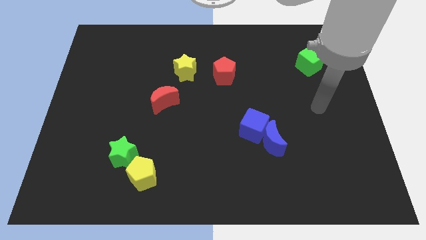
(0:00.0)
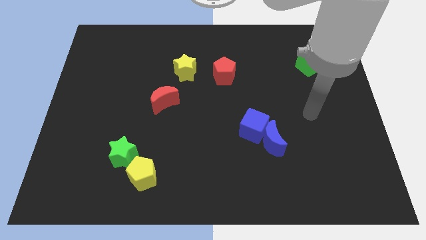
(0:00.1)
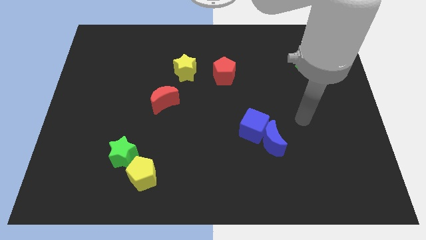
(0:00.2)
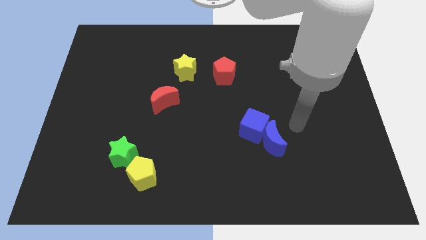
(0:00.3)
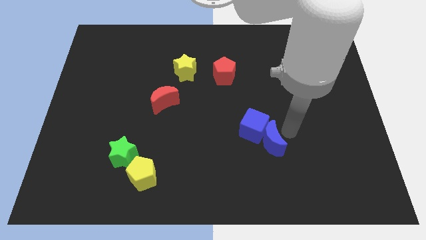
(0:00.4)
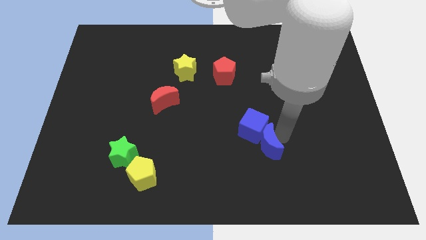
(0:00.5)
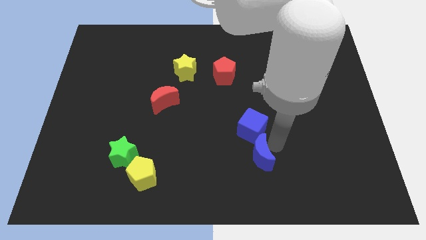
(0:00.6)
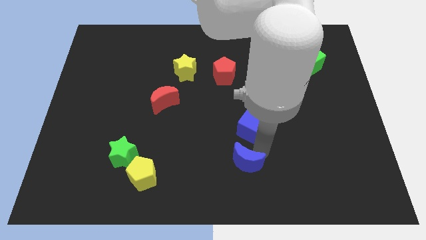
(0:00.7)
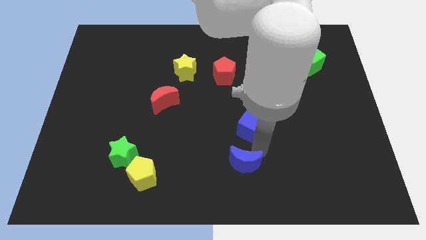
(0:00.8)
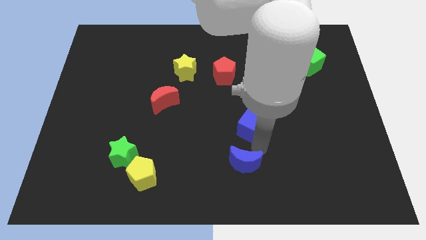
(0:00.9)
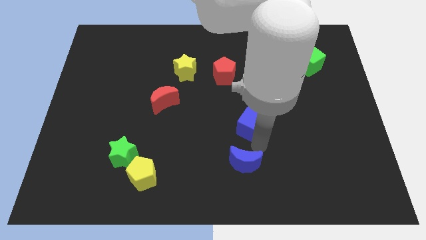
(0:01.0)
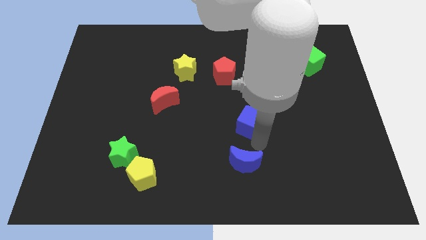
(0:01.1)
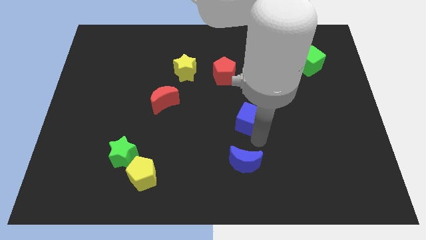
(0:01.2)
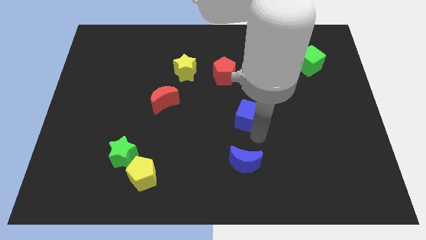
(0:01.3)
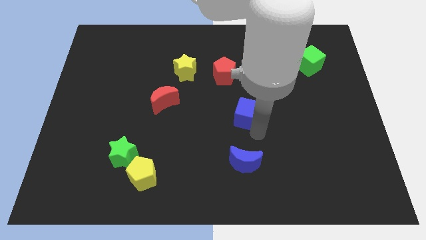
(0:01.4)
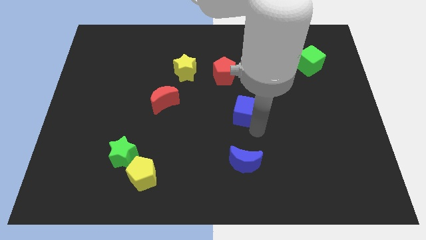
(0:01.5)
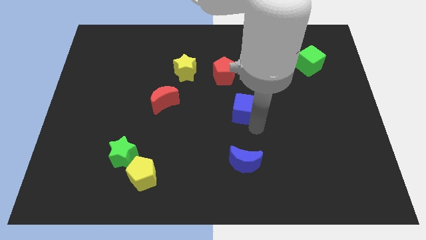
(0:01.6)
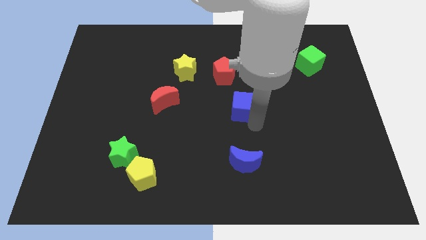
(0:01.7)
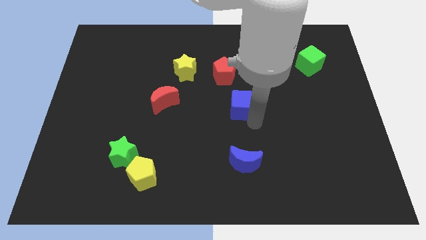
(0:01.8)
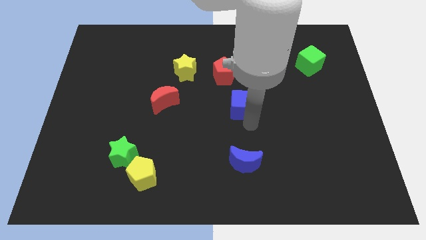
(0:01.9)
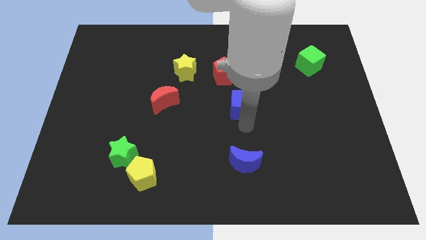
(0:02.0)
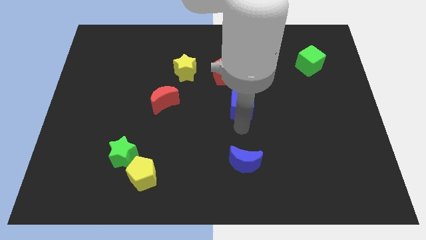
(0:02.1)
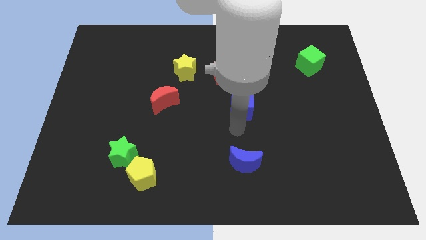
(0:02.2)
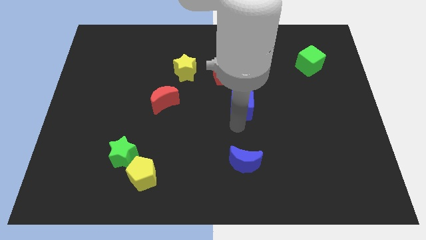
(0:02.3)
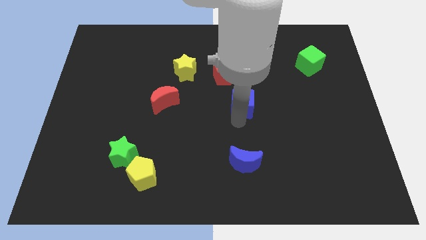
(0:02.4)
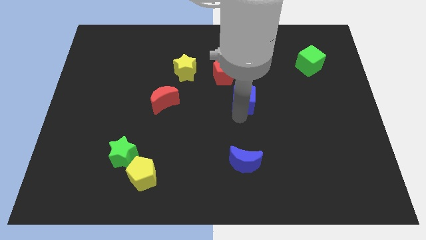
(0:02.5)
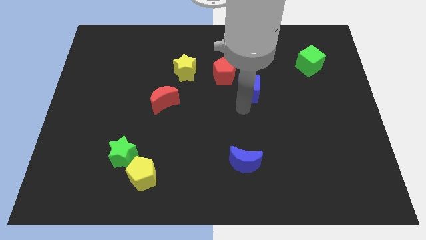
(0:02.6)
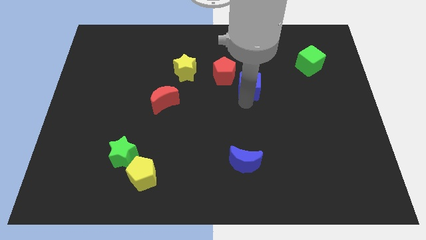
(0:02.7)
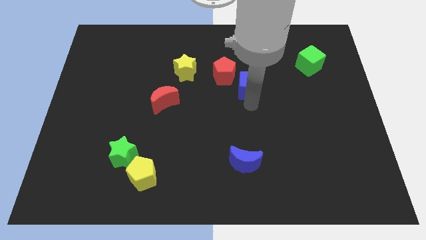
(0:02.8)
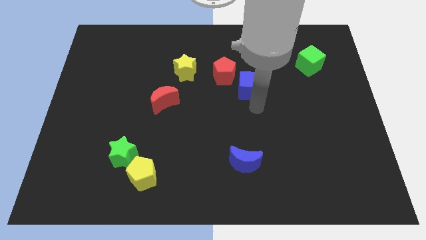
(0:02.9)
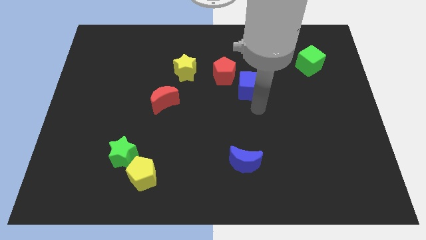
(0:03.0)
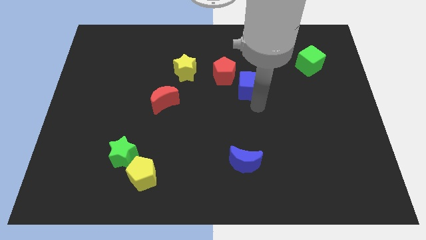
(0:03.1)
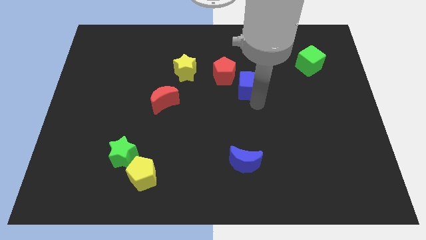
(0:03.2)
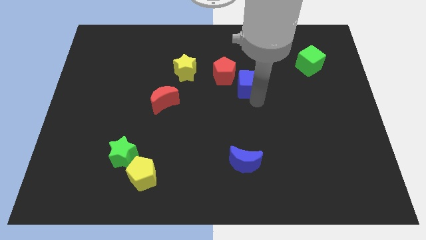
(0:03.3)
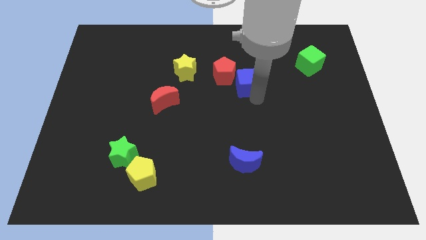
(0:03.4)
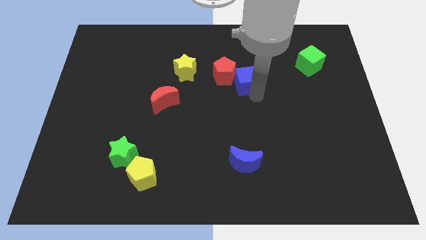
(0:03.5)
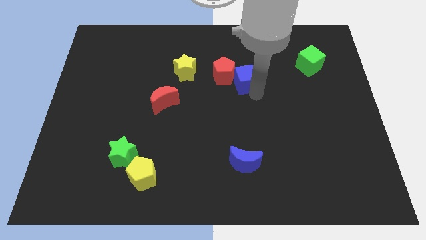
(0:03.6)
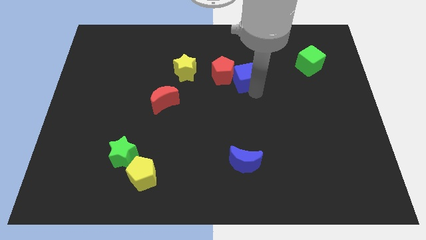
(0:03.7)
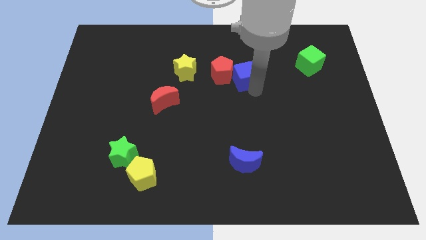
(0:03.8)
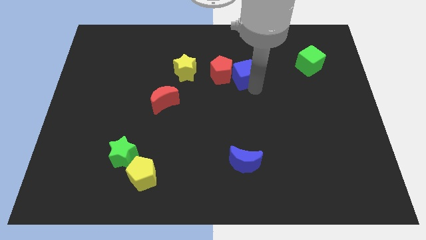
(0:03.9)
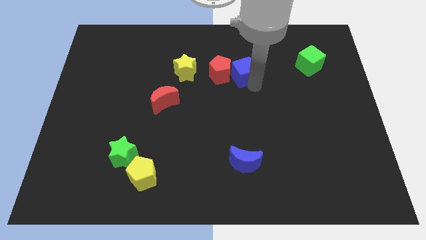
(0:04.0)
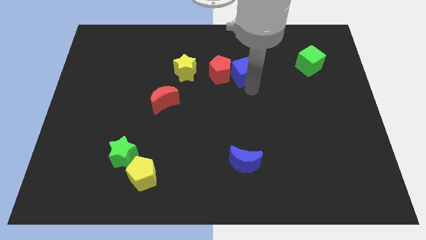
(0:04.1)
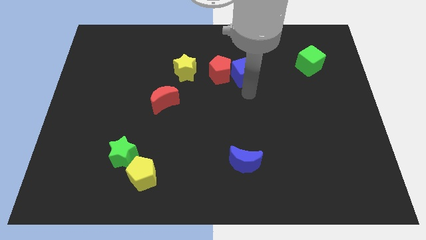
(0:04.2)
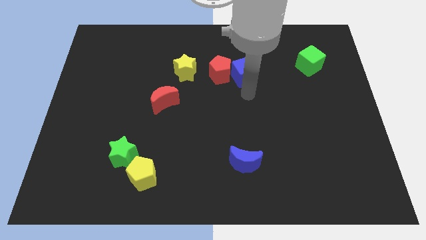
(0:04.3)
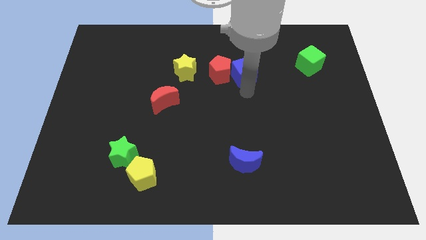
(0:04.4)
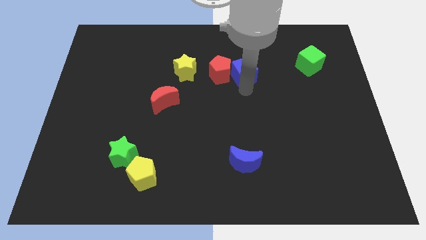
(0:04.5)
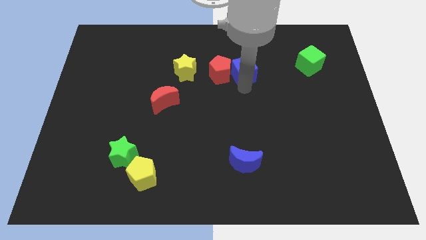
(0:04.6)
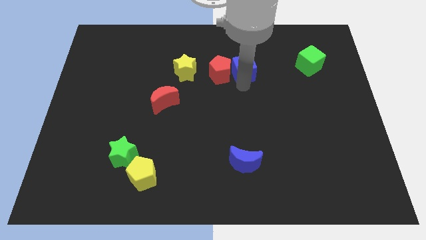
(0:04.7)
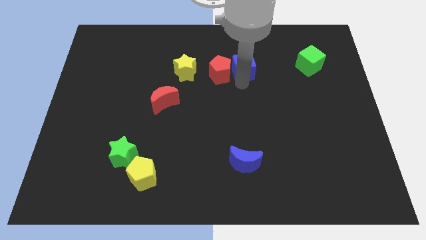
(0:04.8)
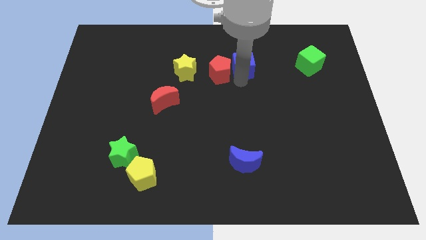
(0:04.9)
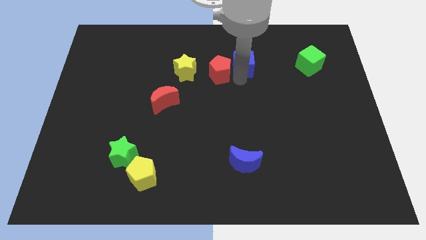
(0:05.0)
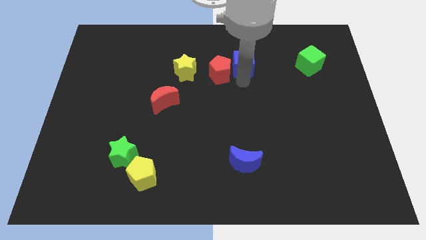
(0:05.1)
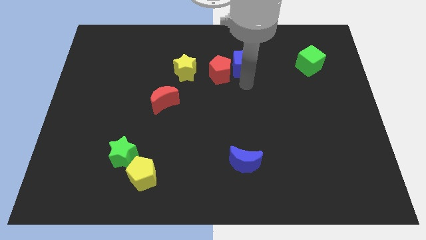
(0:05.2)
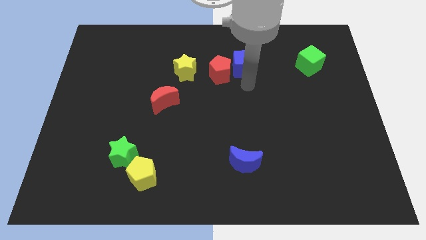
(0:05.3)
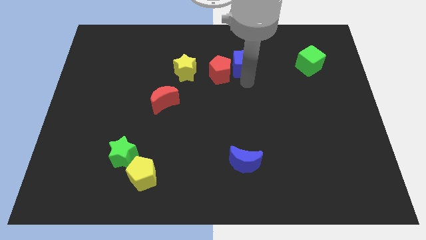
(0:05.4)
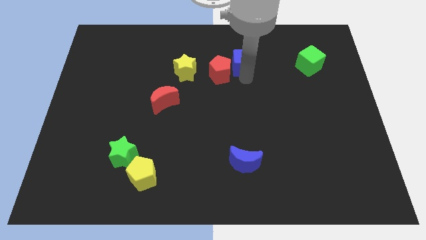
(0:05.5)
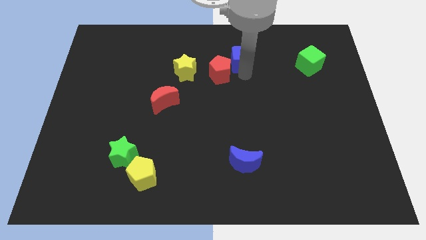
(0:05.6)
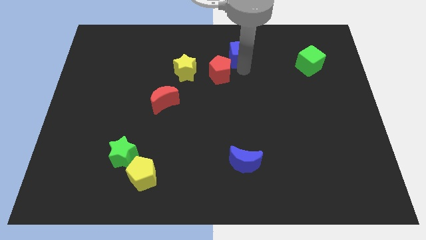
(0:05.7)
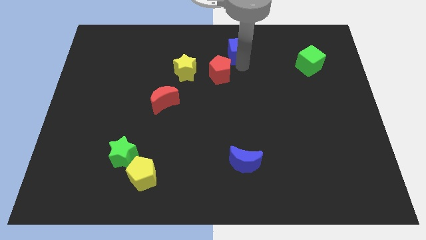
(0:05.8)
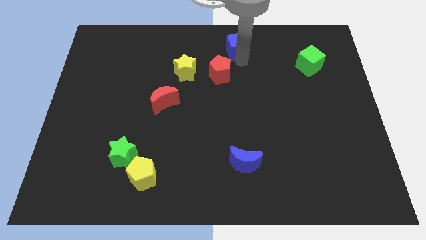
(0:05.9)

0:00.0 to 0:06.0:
put the blue cube to the top

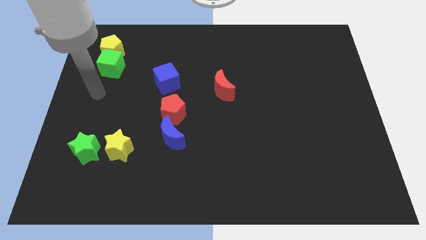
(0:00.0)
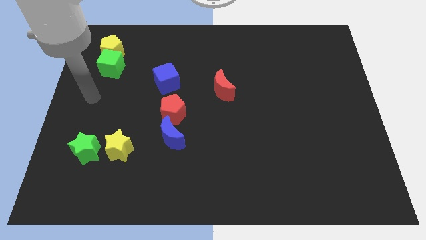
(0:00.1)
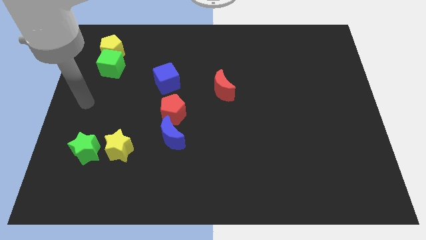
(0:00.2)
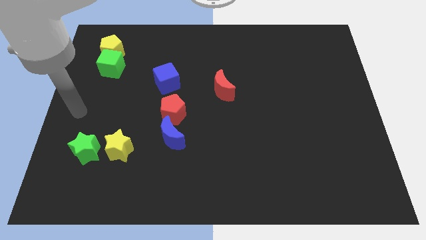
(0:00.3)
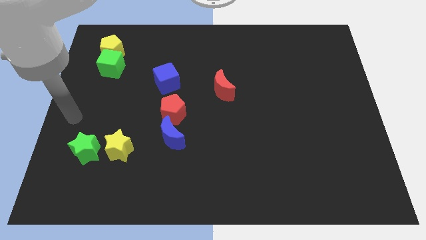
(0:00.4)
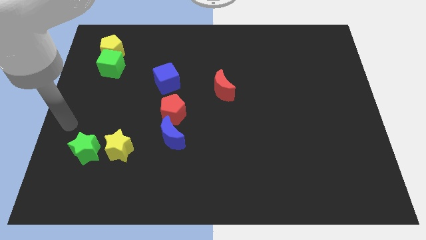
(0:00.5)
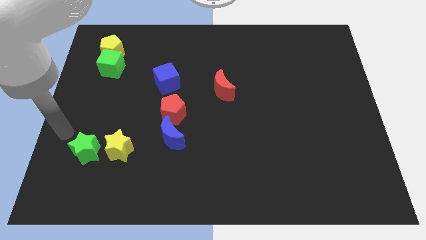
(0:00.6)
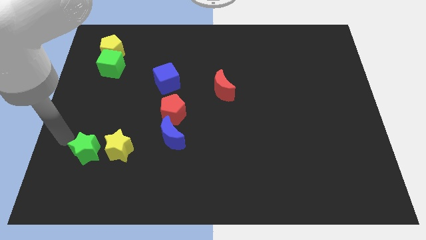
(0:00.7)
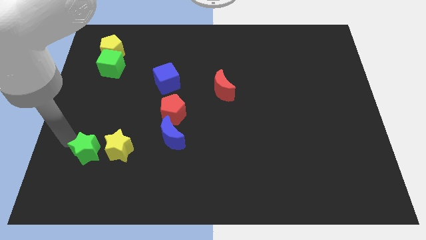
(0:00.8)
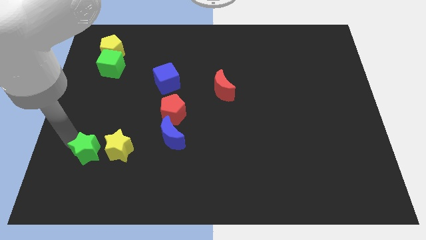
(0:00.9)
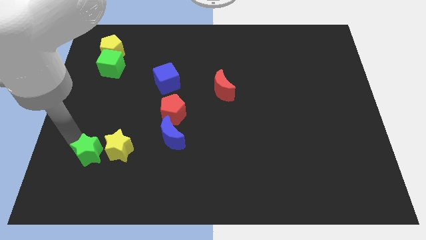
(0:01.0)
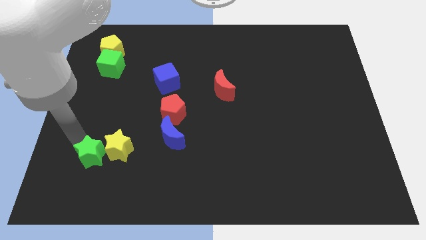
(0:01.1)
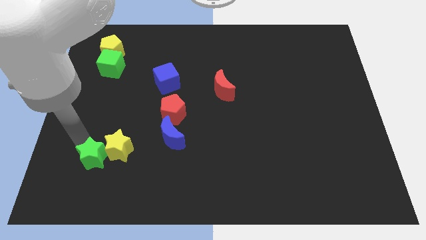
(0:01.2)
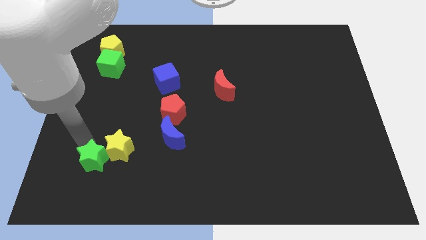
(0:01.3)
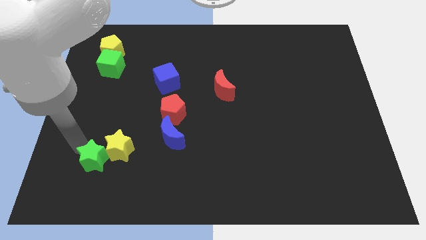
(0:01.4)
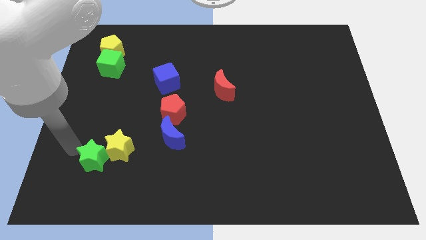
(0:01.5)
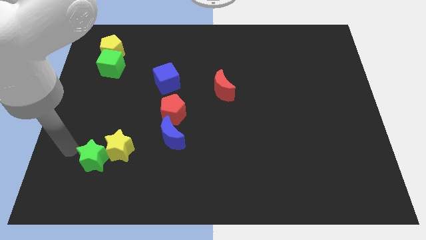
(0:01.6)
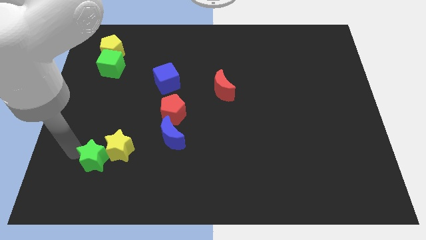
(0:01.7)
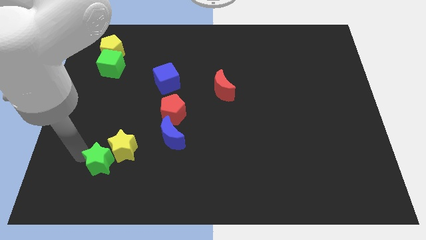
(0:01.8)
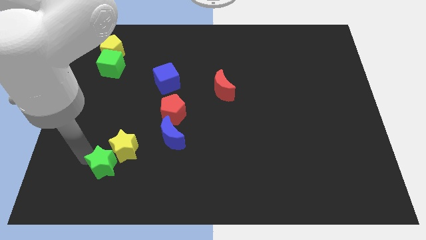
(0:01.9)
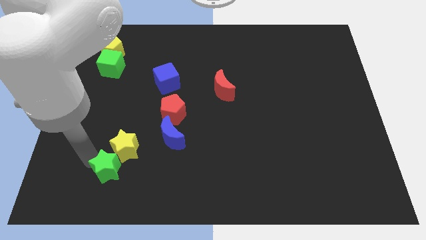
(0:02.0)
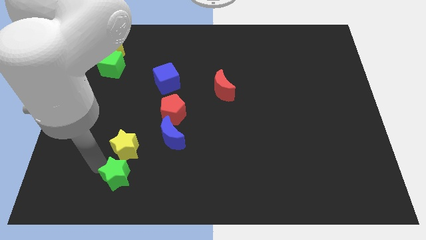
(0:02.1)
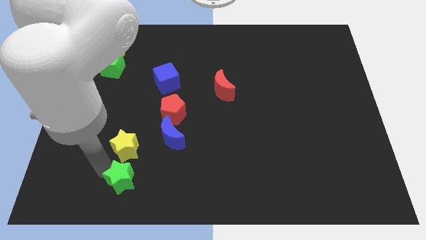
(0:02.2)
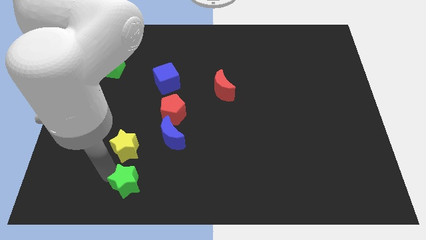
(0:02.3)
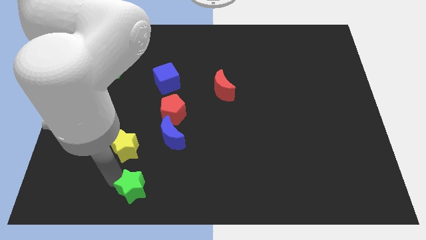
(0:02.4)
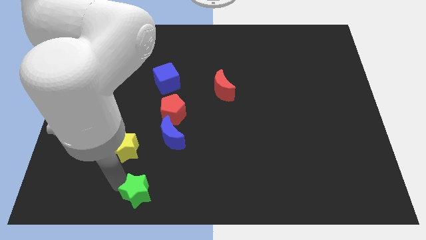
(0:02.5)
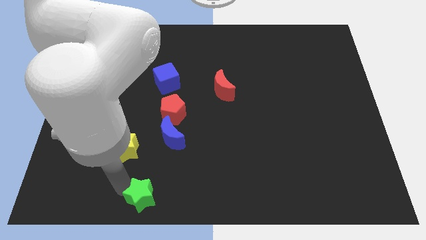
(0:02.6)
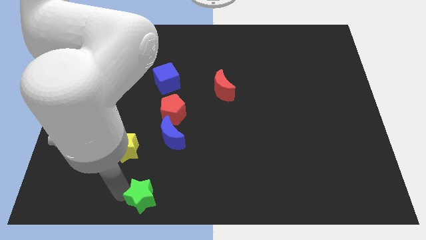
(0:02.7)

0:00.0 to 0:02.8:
slide the green star to the bottom
